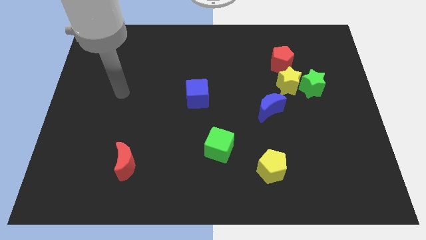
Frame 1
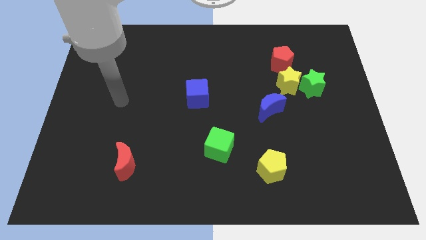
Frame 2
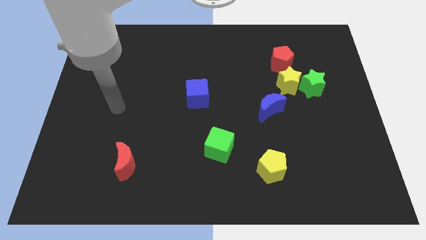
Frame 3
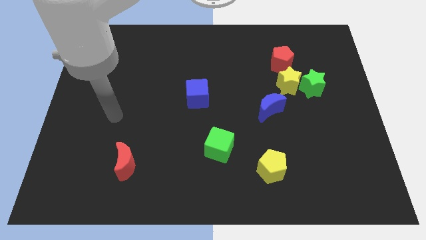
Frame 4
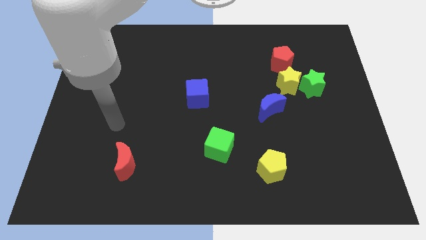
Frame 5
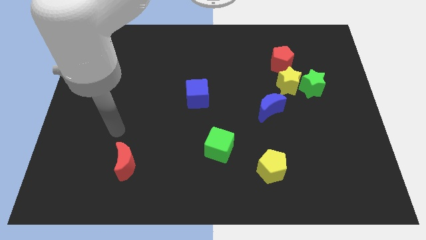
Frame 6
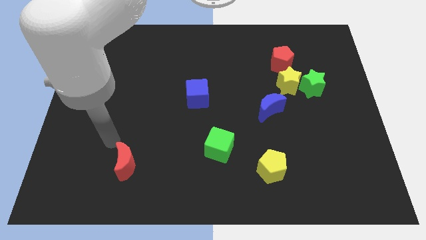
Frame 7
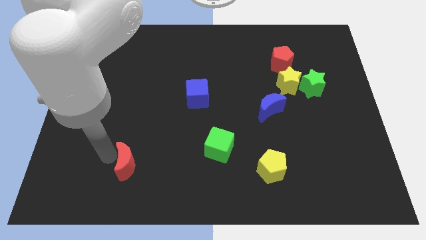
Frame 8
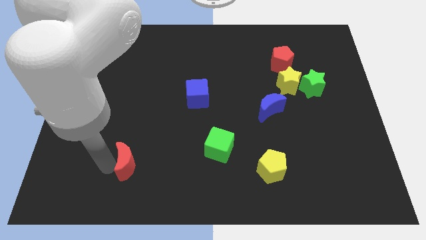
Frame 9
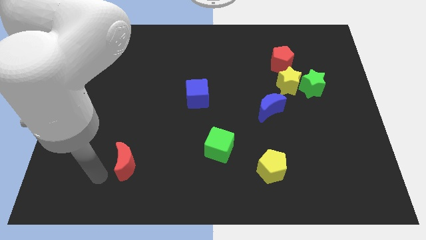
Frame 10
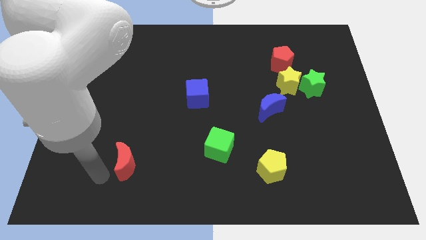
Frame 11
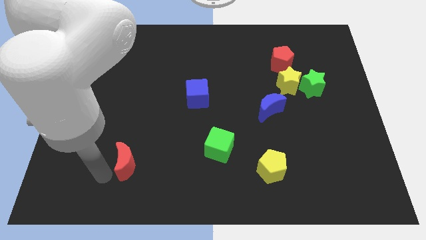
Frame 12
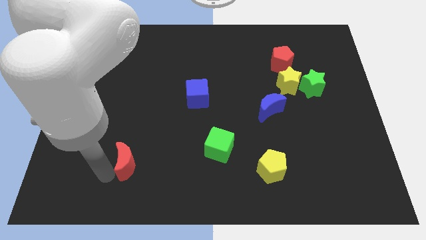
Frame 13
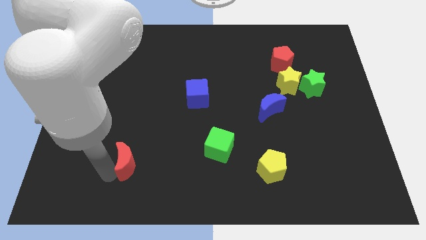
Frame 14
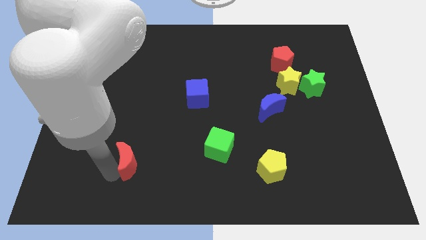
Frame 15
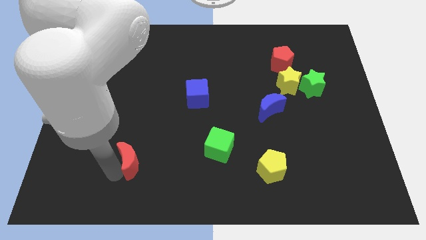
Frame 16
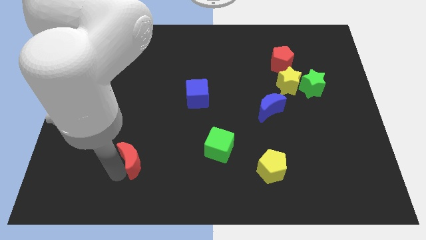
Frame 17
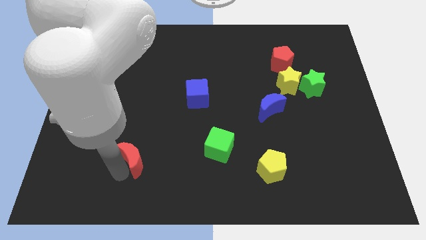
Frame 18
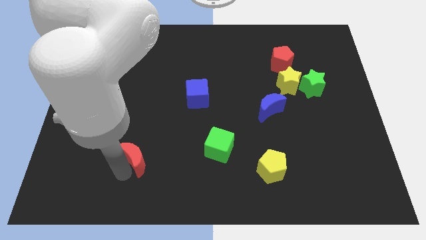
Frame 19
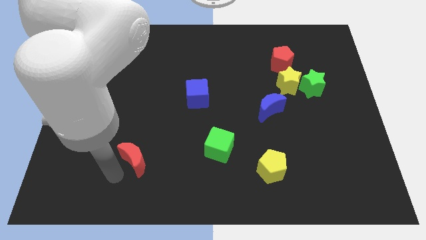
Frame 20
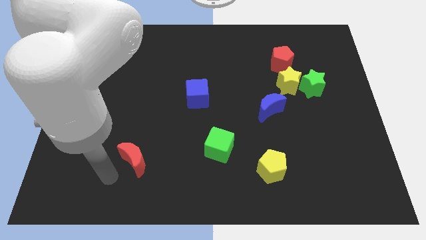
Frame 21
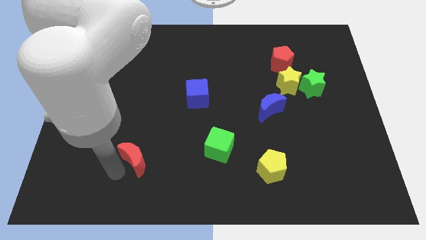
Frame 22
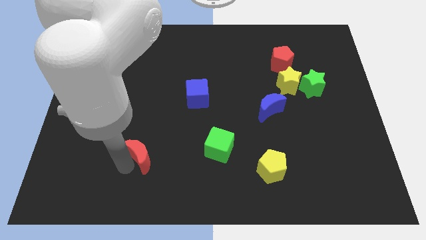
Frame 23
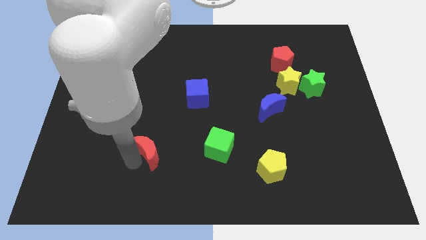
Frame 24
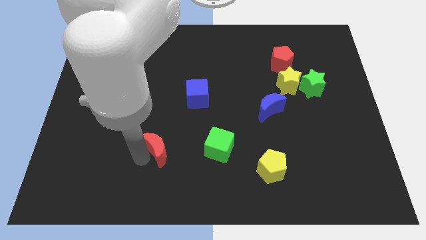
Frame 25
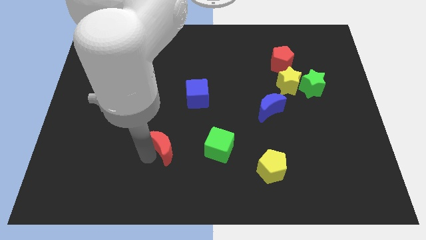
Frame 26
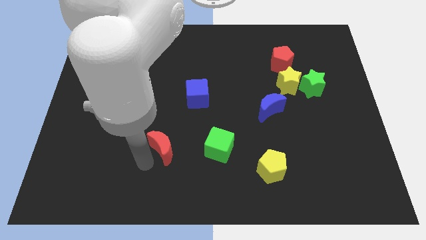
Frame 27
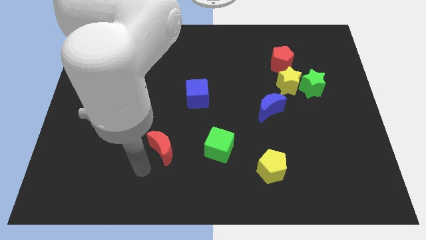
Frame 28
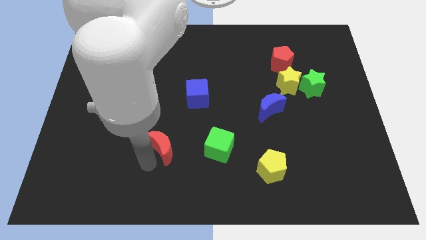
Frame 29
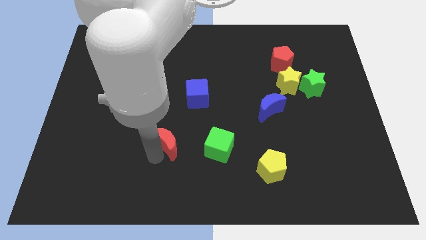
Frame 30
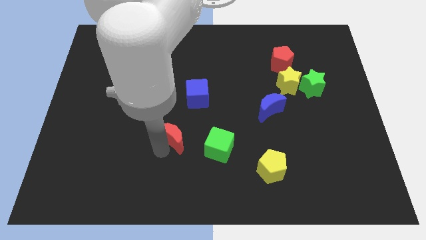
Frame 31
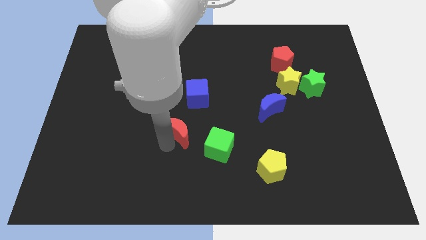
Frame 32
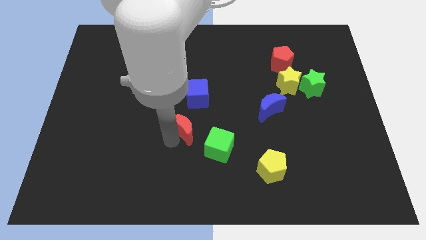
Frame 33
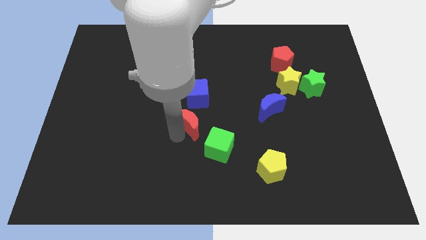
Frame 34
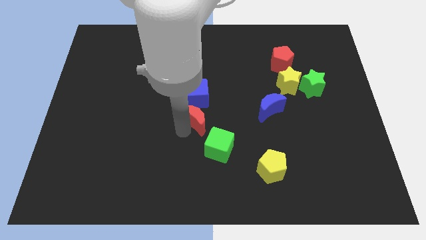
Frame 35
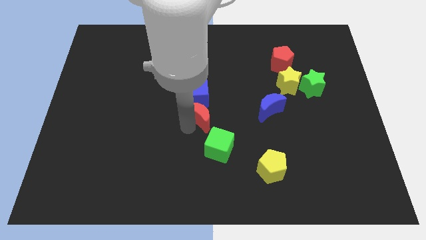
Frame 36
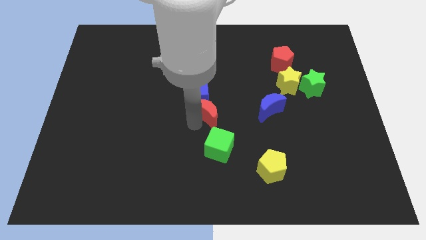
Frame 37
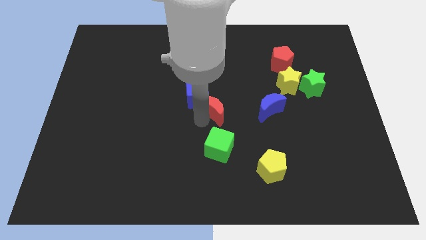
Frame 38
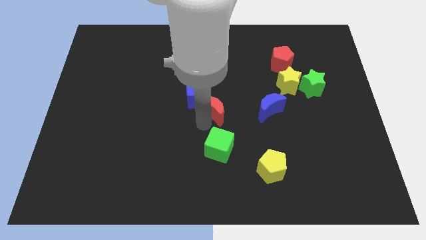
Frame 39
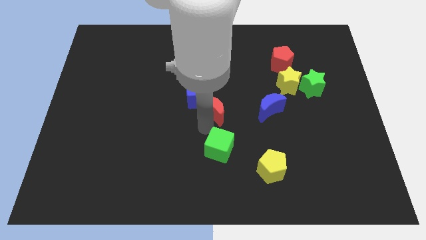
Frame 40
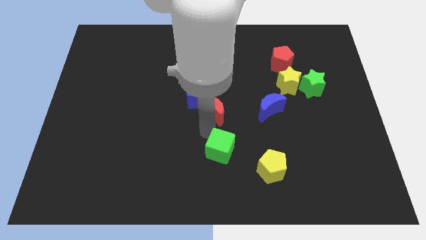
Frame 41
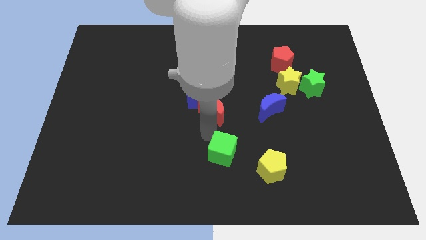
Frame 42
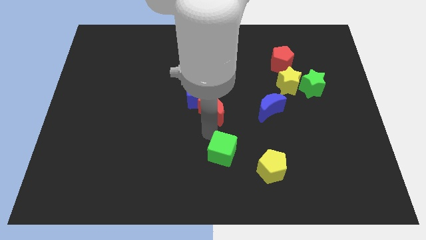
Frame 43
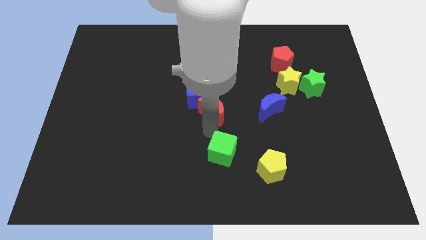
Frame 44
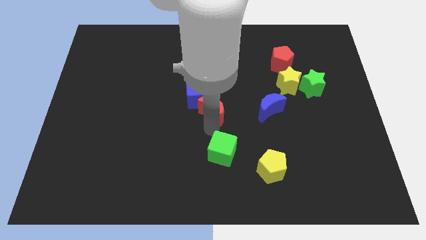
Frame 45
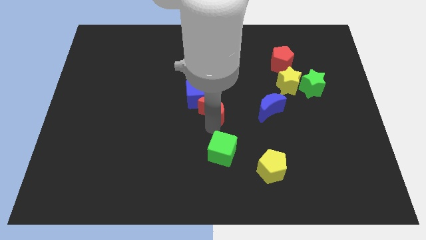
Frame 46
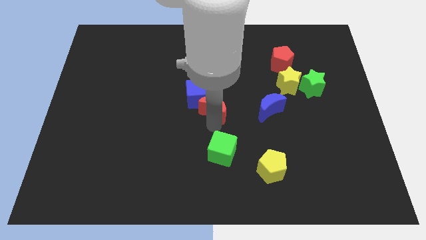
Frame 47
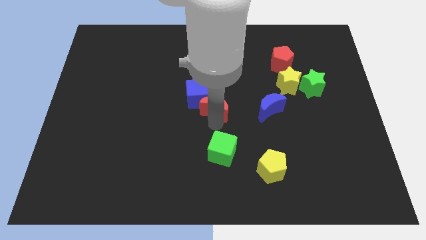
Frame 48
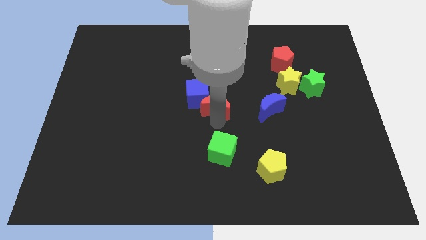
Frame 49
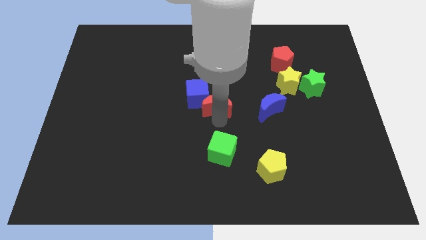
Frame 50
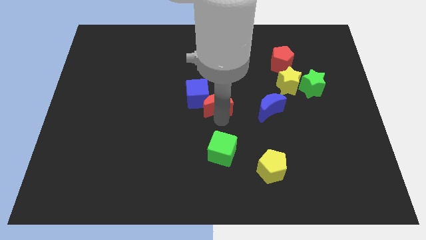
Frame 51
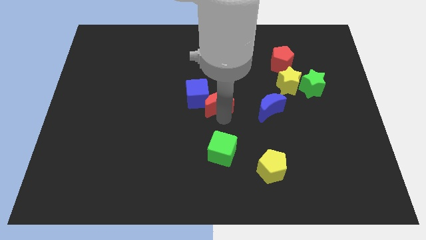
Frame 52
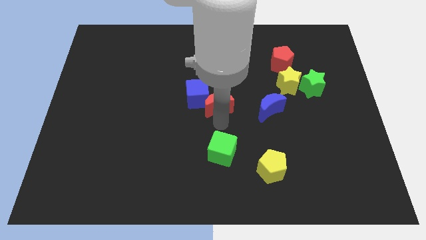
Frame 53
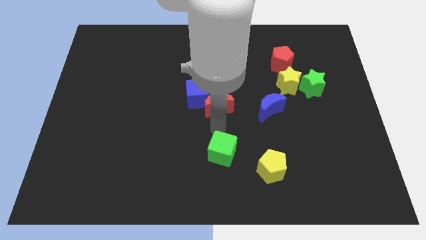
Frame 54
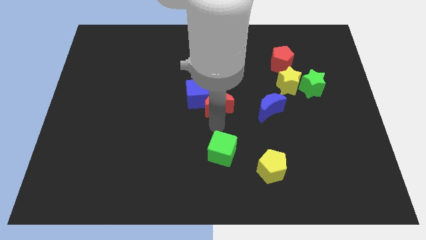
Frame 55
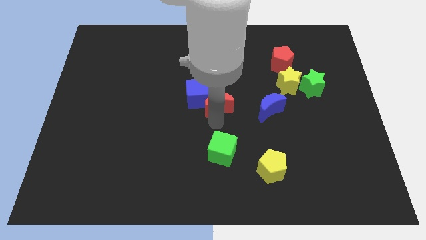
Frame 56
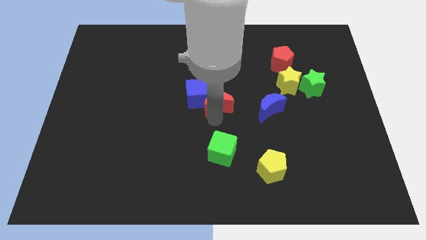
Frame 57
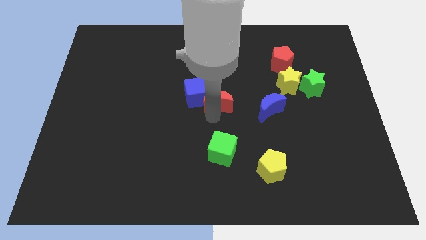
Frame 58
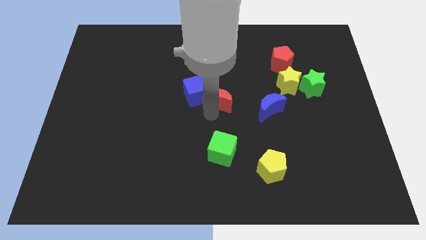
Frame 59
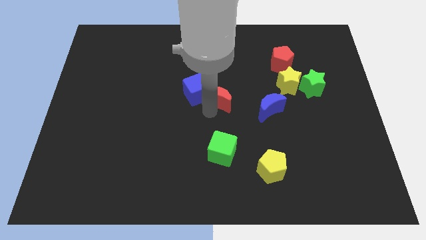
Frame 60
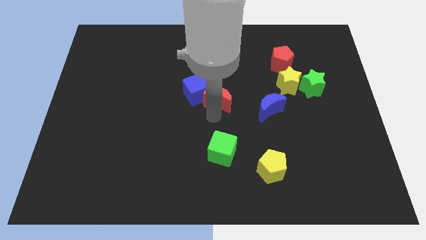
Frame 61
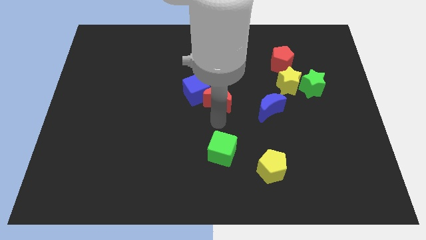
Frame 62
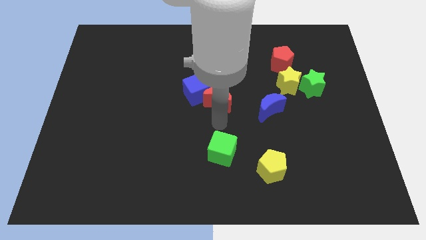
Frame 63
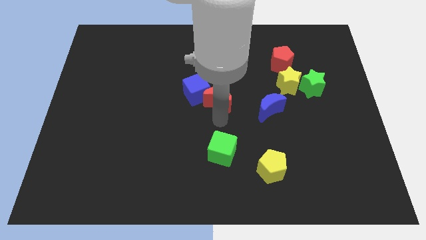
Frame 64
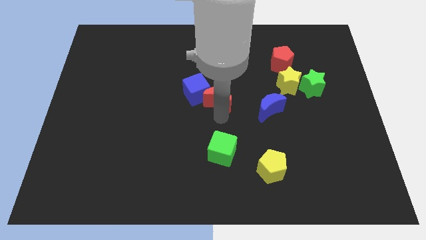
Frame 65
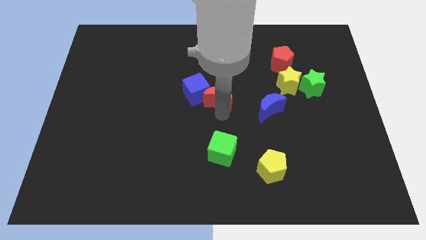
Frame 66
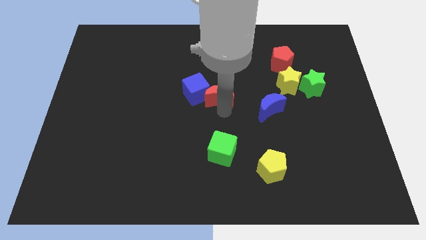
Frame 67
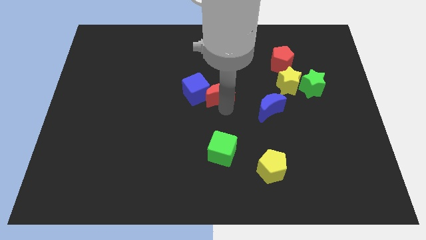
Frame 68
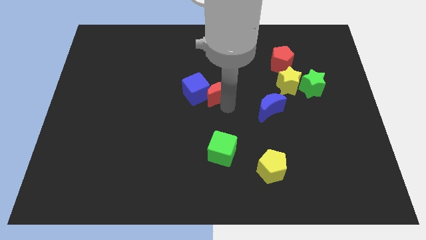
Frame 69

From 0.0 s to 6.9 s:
push the red moon to the top right side of the blue cube

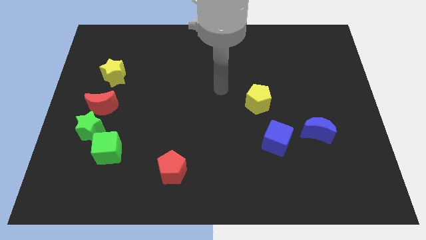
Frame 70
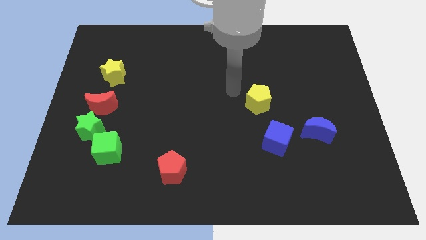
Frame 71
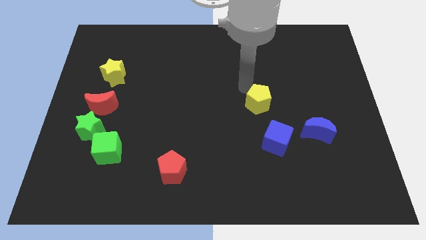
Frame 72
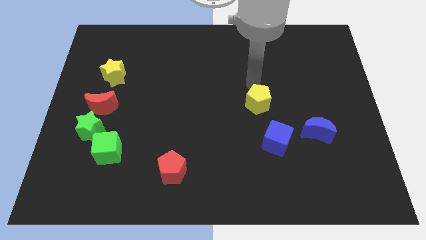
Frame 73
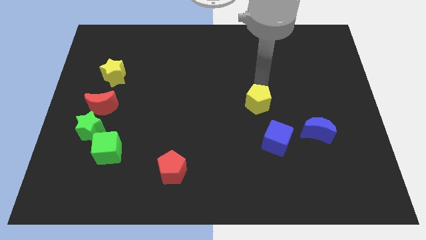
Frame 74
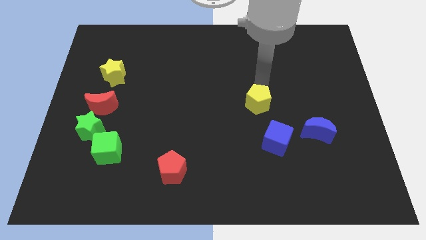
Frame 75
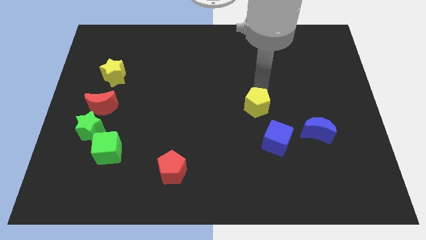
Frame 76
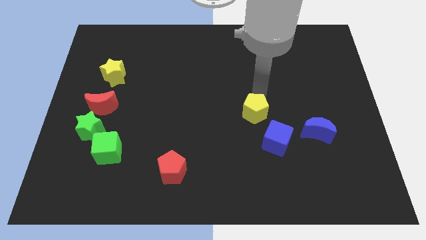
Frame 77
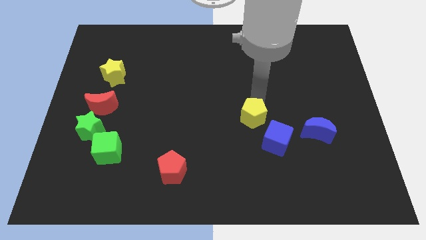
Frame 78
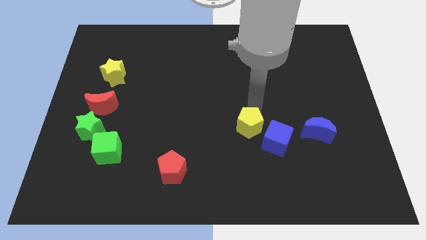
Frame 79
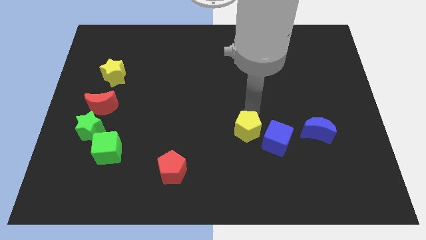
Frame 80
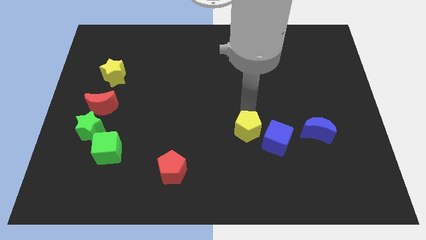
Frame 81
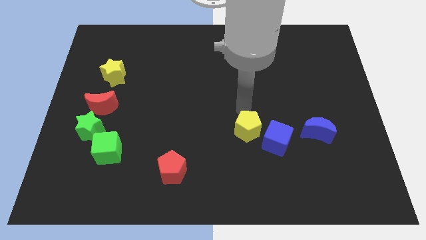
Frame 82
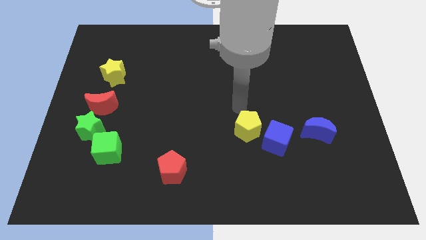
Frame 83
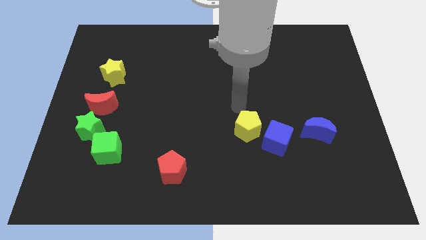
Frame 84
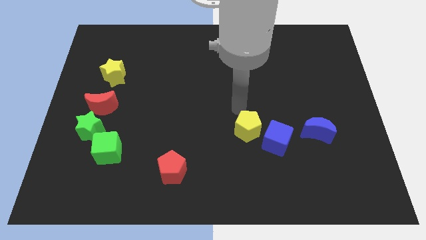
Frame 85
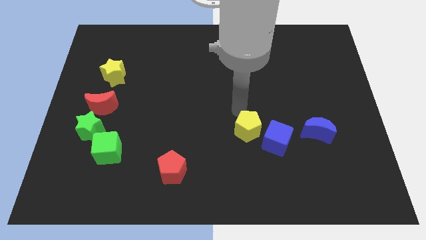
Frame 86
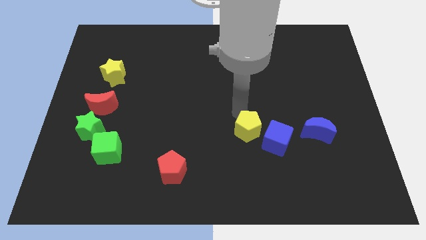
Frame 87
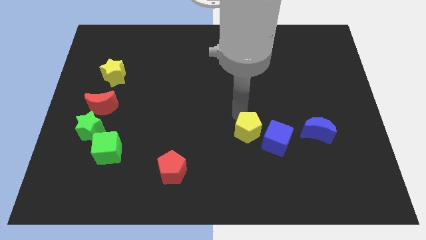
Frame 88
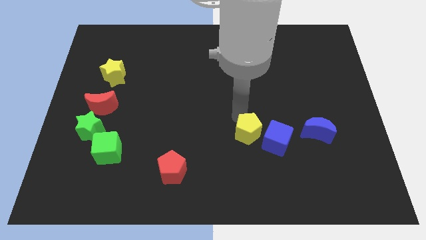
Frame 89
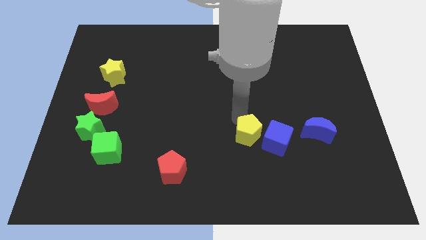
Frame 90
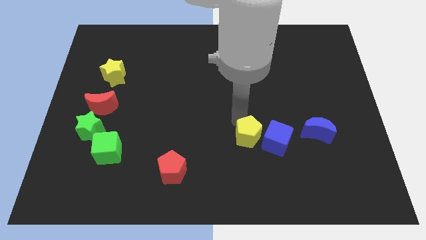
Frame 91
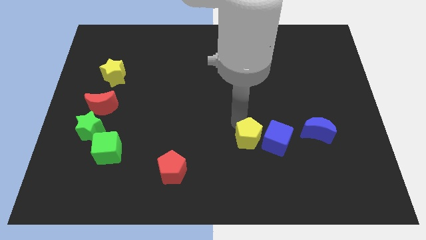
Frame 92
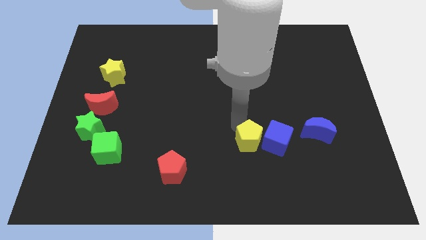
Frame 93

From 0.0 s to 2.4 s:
push the yellow pentagon to the bottom left of the blue cube
